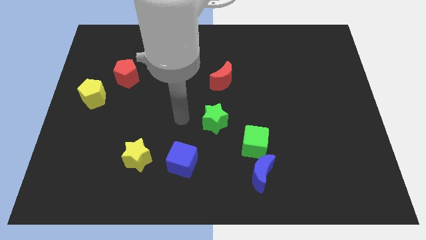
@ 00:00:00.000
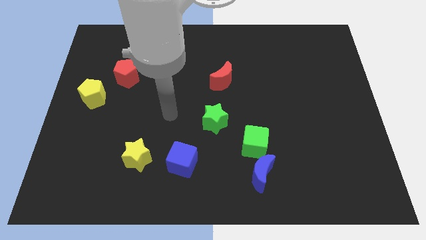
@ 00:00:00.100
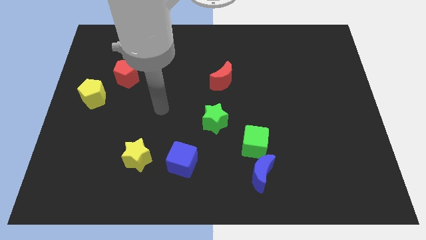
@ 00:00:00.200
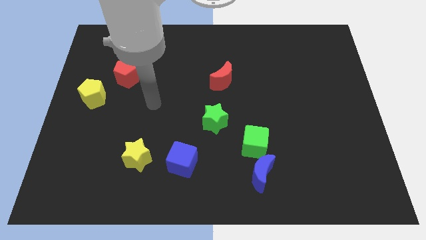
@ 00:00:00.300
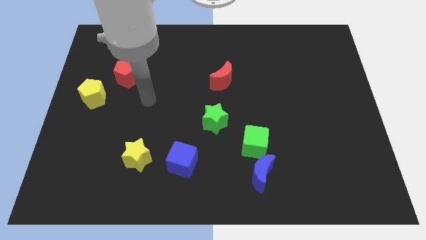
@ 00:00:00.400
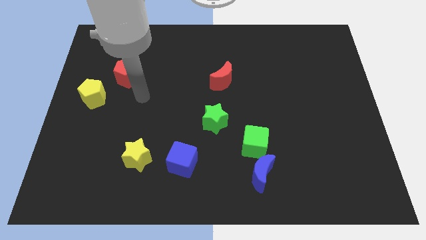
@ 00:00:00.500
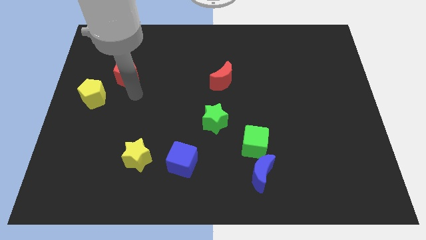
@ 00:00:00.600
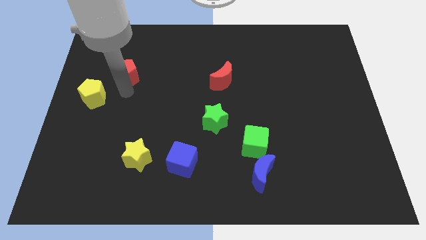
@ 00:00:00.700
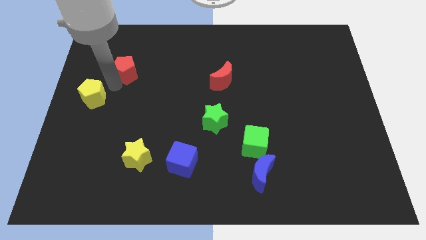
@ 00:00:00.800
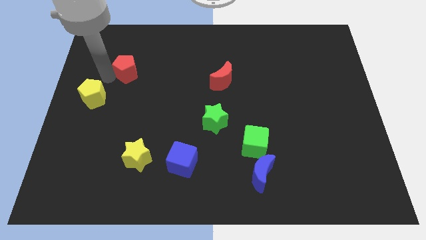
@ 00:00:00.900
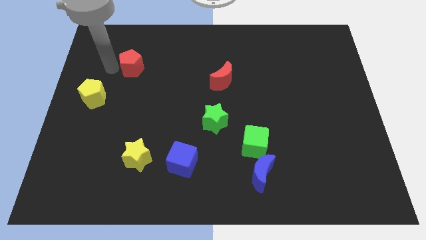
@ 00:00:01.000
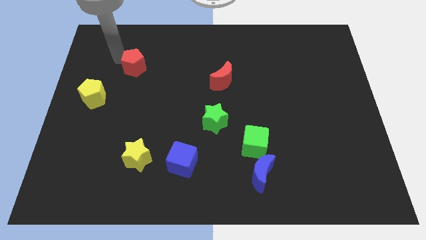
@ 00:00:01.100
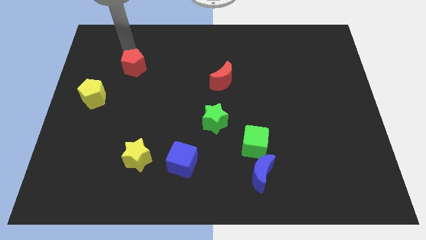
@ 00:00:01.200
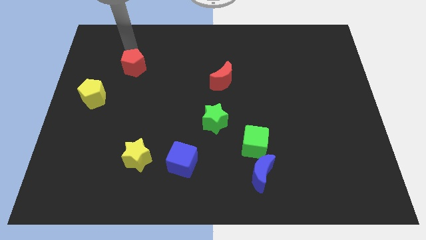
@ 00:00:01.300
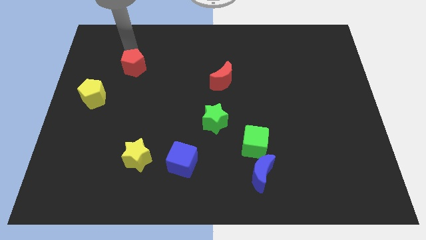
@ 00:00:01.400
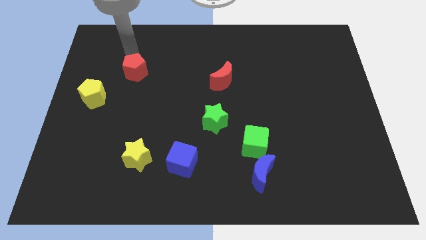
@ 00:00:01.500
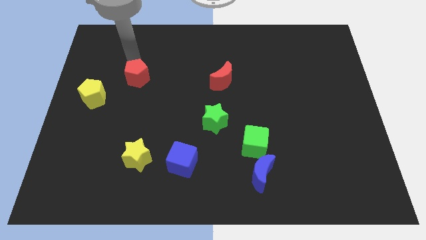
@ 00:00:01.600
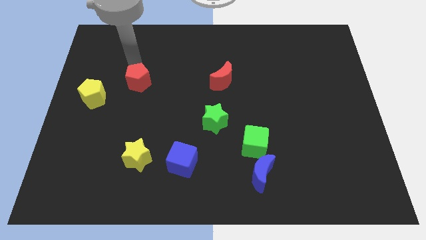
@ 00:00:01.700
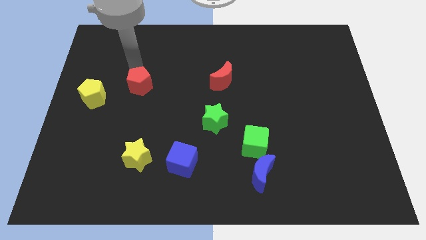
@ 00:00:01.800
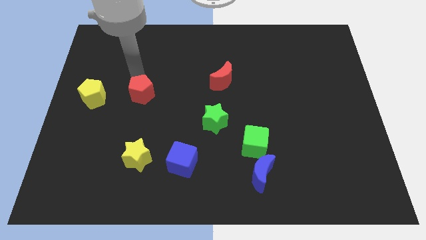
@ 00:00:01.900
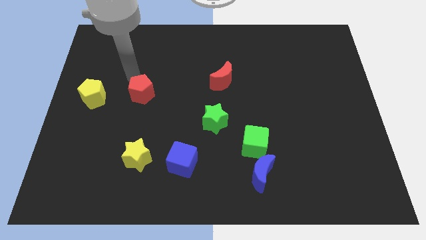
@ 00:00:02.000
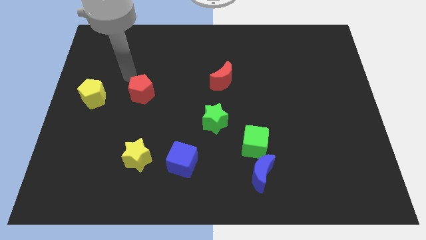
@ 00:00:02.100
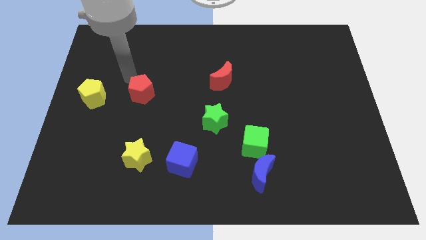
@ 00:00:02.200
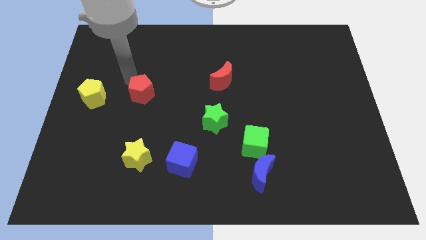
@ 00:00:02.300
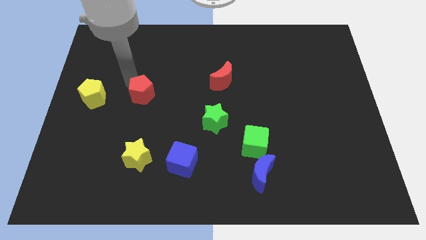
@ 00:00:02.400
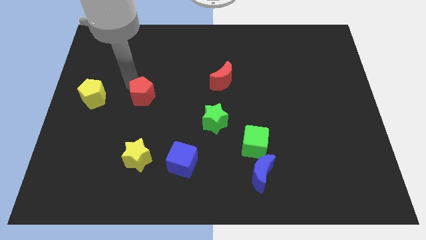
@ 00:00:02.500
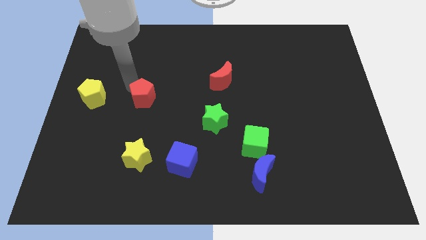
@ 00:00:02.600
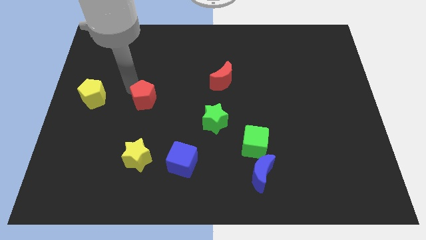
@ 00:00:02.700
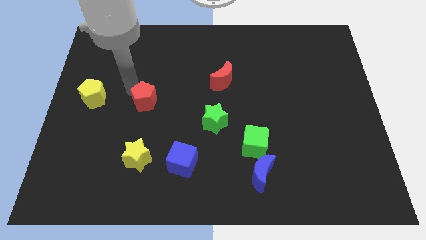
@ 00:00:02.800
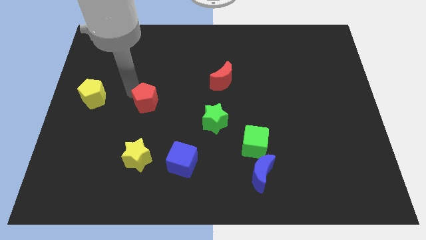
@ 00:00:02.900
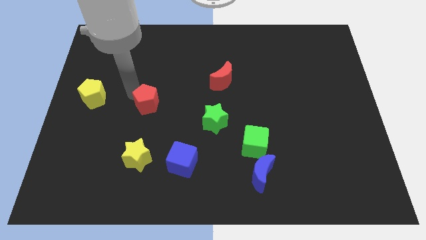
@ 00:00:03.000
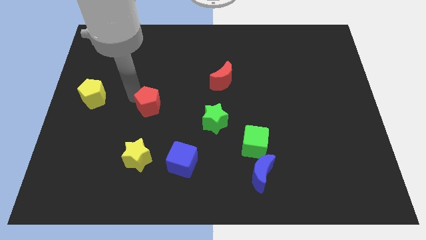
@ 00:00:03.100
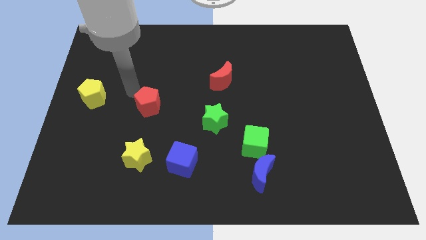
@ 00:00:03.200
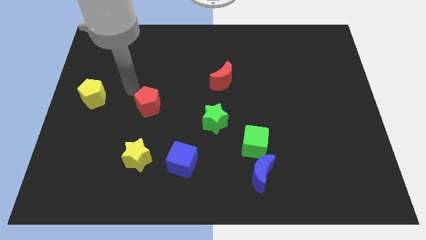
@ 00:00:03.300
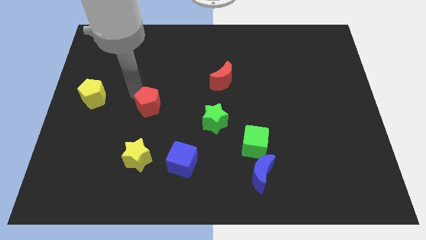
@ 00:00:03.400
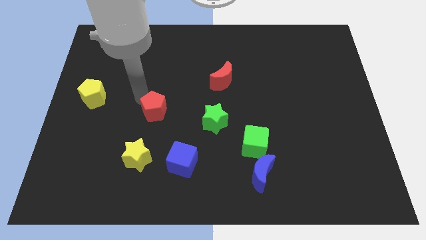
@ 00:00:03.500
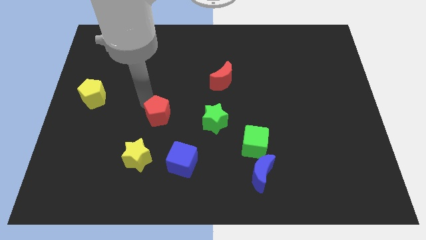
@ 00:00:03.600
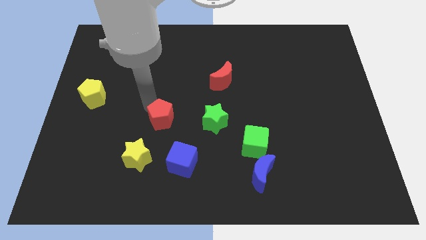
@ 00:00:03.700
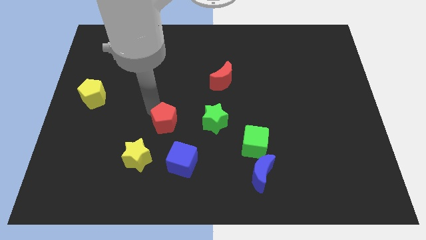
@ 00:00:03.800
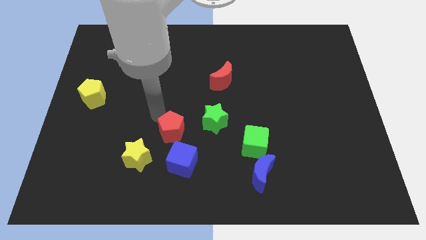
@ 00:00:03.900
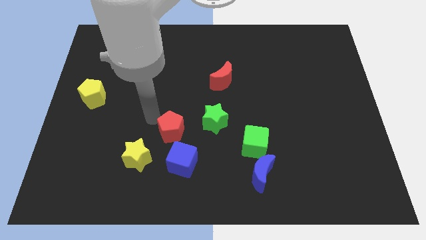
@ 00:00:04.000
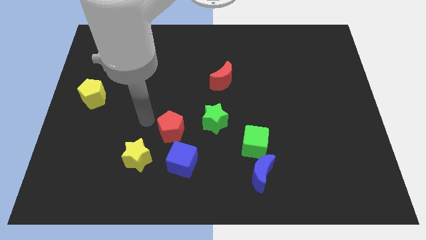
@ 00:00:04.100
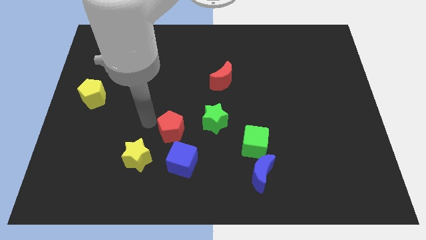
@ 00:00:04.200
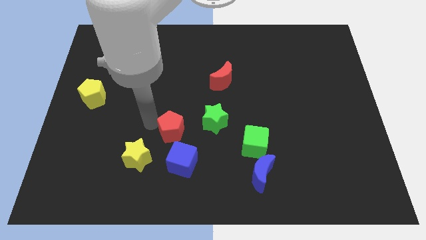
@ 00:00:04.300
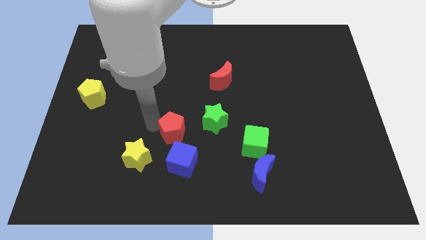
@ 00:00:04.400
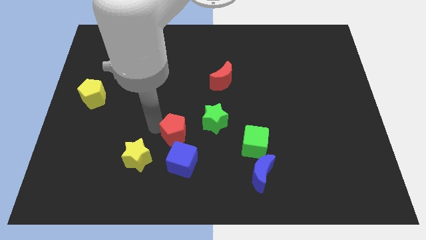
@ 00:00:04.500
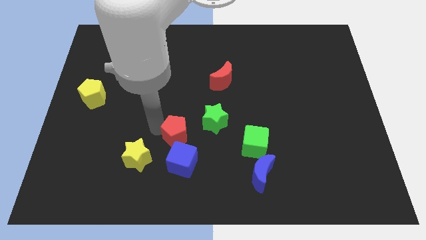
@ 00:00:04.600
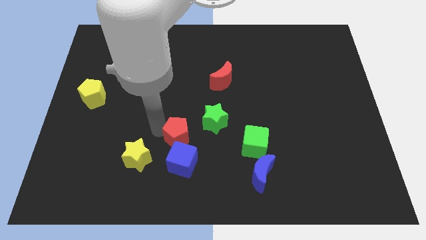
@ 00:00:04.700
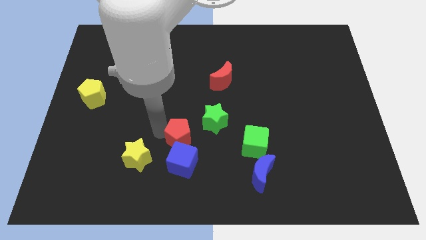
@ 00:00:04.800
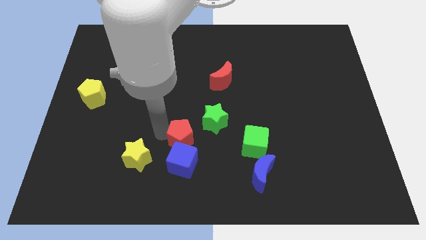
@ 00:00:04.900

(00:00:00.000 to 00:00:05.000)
put the red pentagon just right of the yellow star

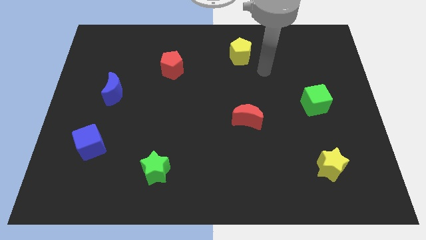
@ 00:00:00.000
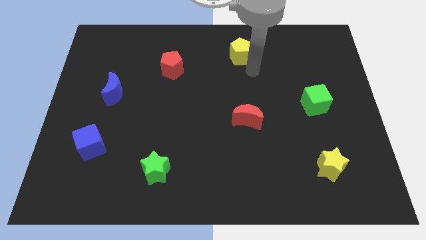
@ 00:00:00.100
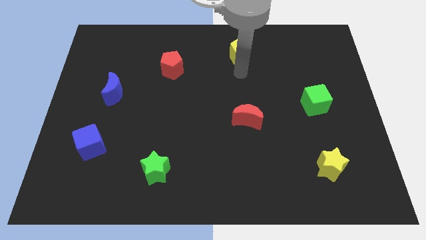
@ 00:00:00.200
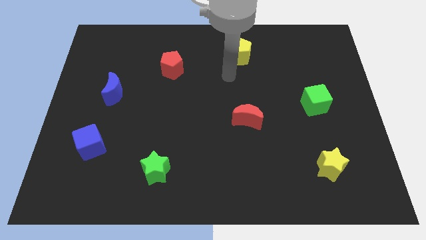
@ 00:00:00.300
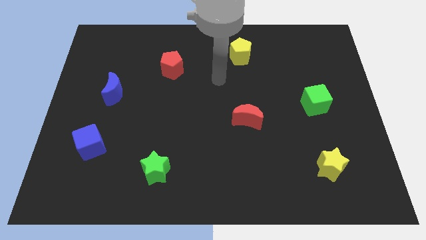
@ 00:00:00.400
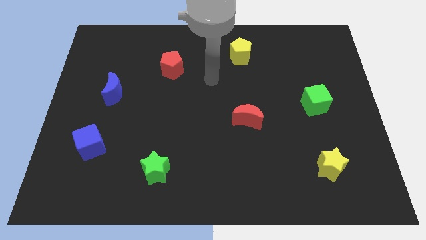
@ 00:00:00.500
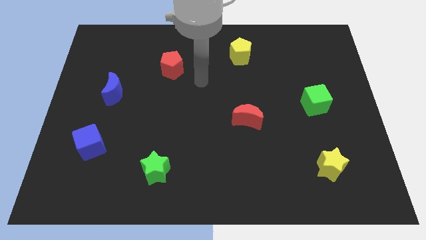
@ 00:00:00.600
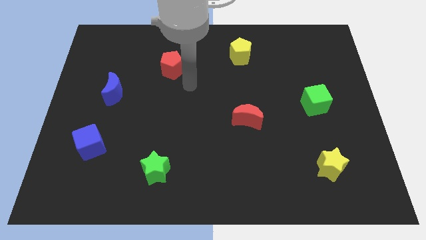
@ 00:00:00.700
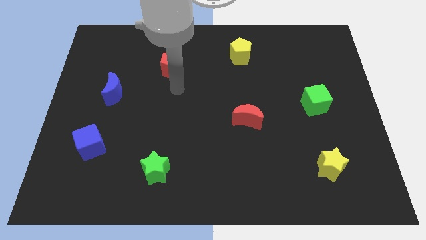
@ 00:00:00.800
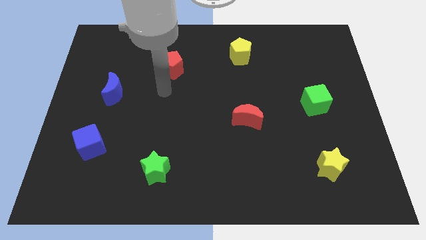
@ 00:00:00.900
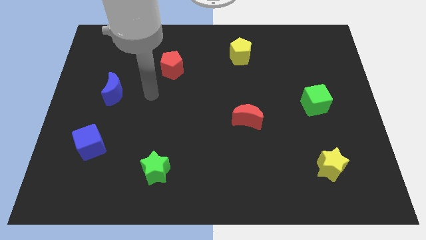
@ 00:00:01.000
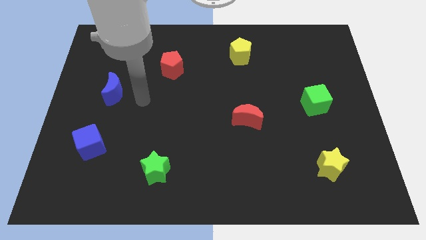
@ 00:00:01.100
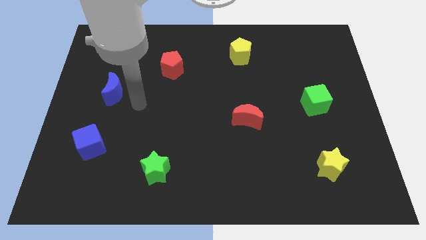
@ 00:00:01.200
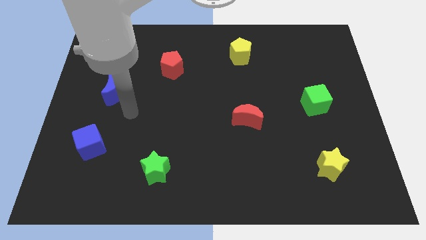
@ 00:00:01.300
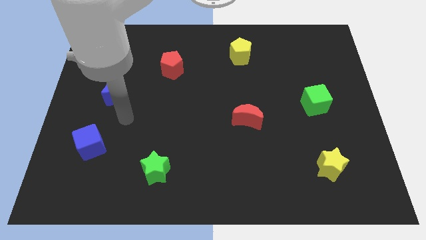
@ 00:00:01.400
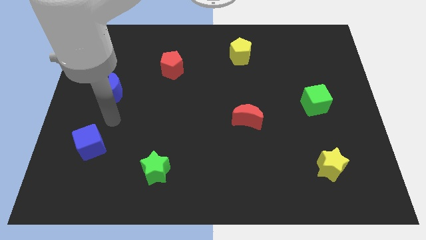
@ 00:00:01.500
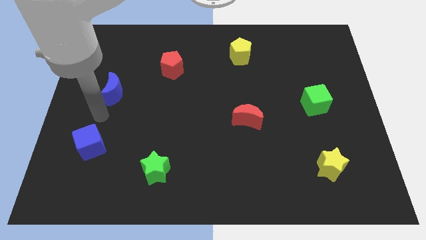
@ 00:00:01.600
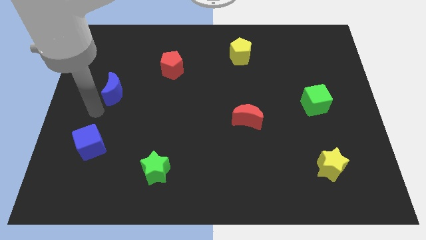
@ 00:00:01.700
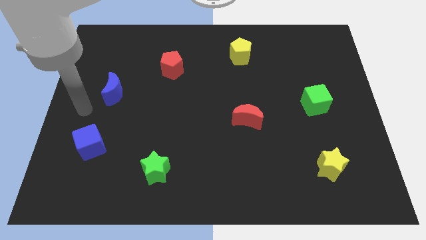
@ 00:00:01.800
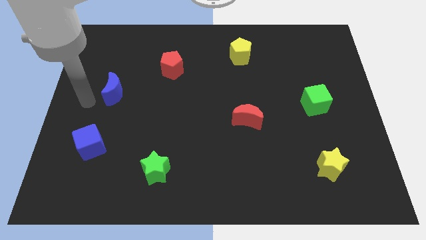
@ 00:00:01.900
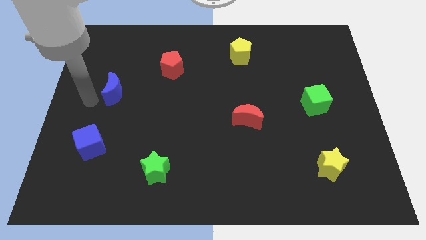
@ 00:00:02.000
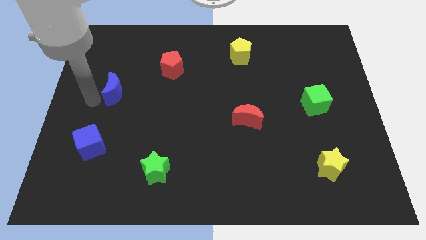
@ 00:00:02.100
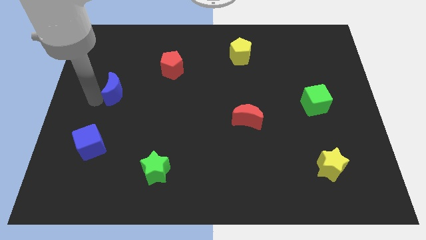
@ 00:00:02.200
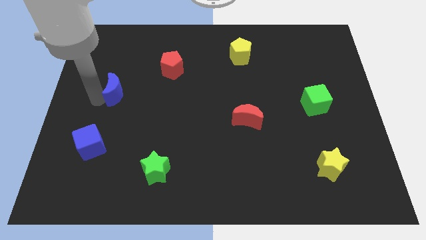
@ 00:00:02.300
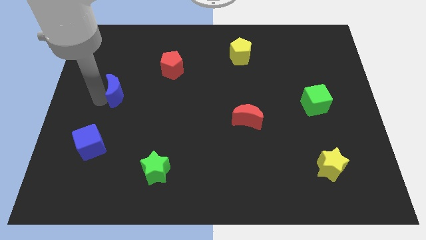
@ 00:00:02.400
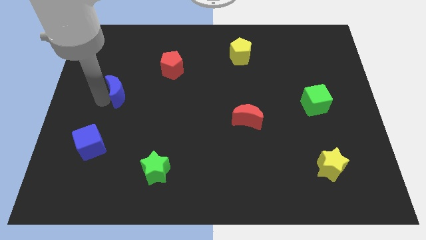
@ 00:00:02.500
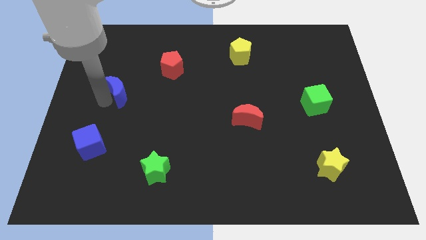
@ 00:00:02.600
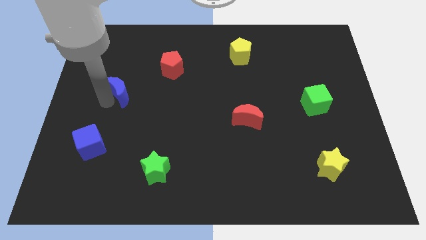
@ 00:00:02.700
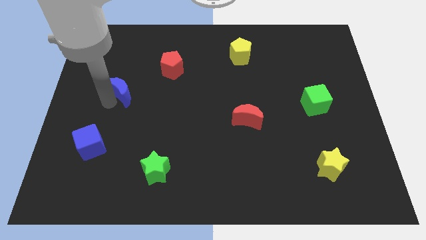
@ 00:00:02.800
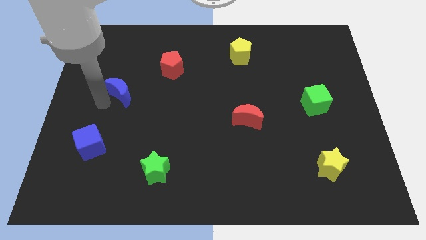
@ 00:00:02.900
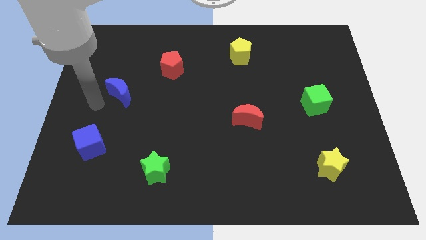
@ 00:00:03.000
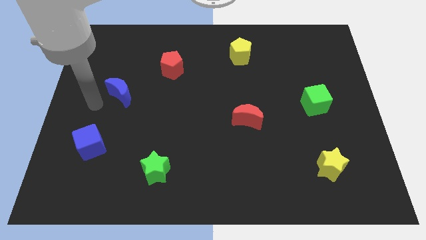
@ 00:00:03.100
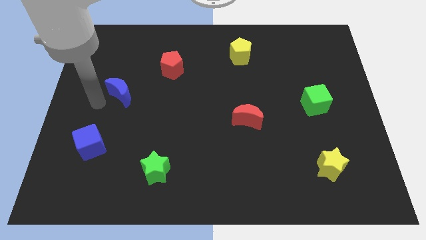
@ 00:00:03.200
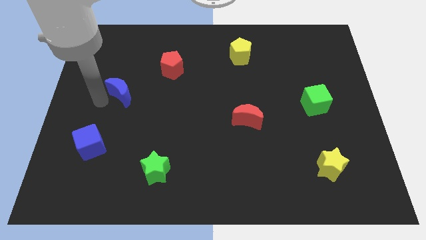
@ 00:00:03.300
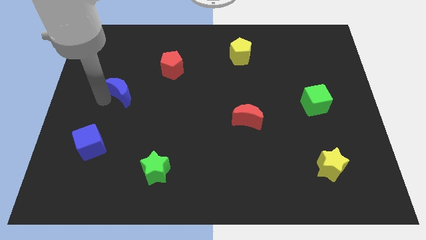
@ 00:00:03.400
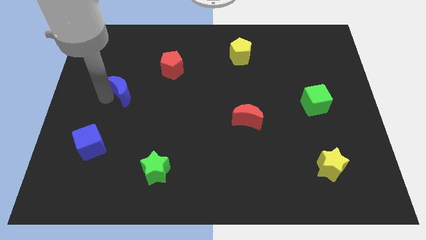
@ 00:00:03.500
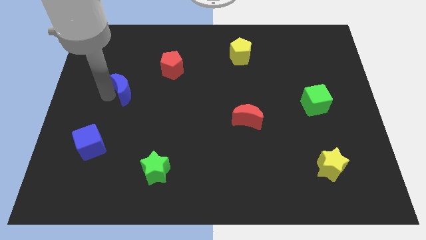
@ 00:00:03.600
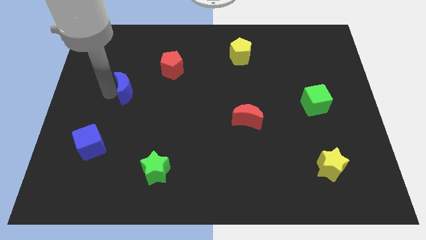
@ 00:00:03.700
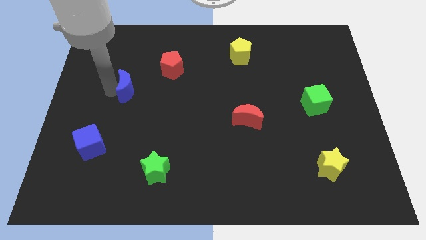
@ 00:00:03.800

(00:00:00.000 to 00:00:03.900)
put the blue moon diagonally down and to the left of the red pentagon
